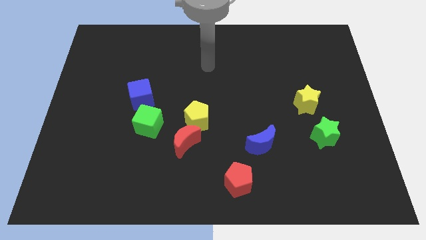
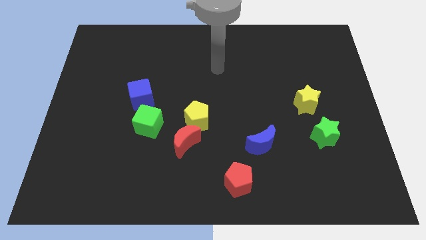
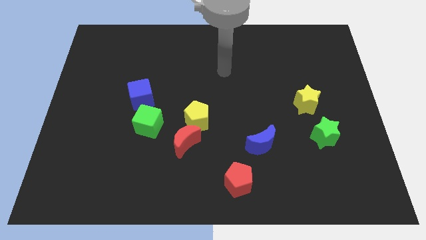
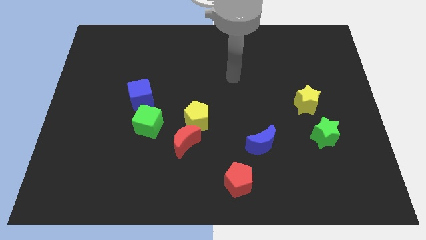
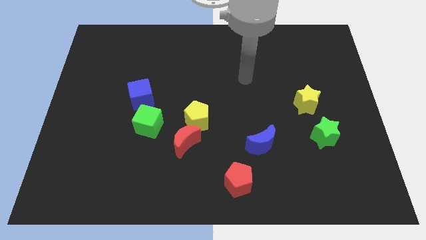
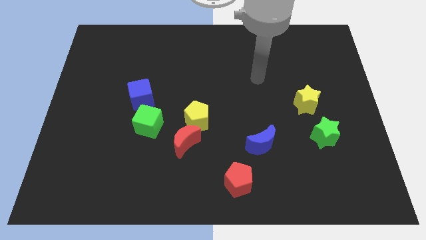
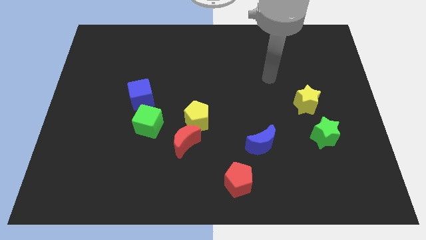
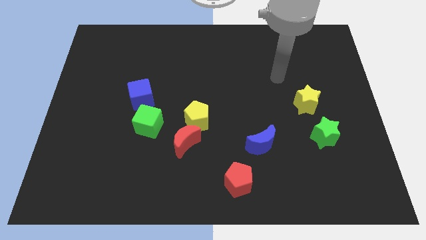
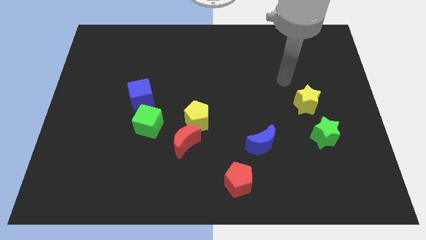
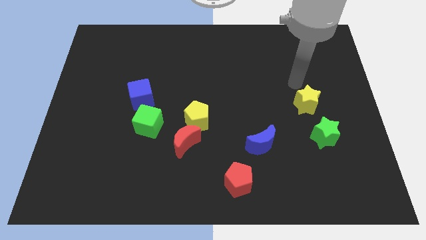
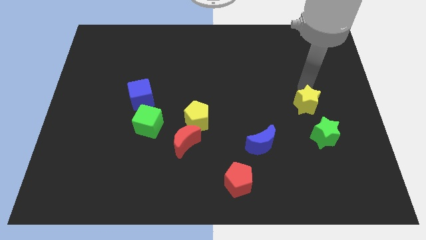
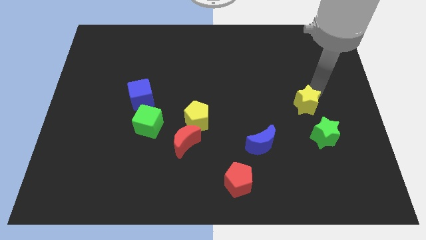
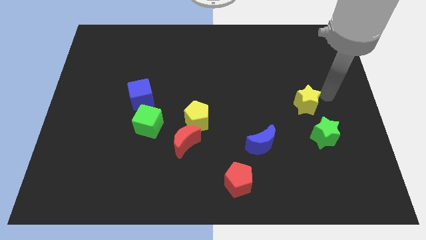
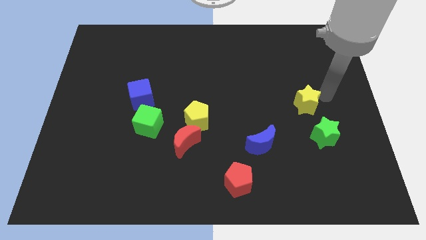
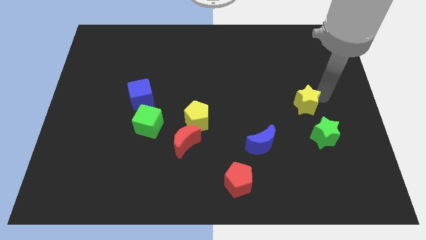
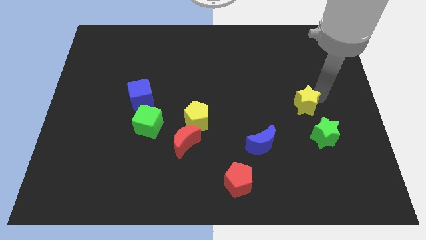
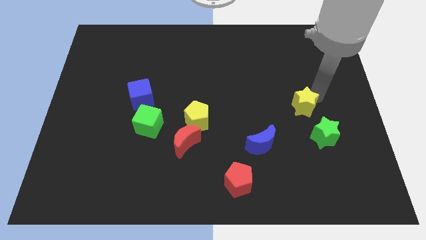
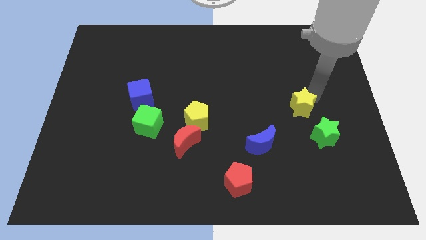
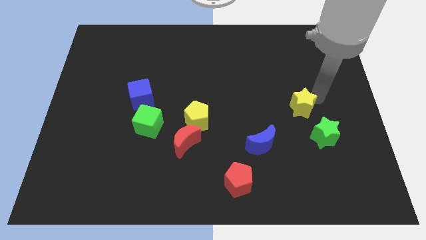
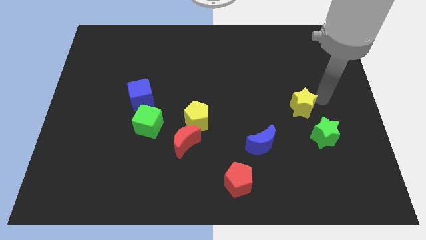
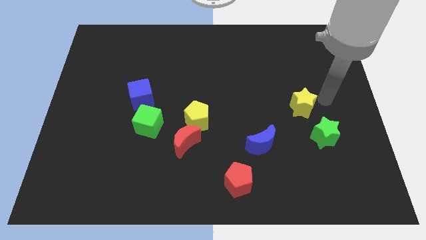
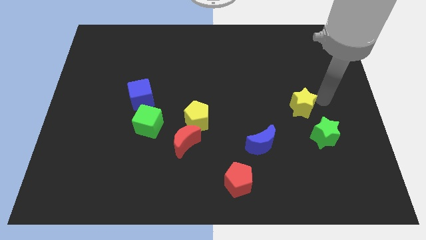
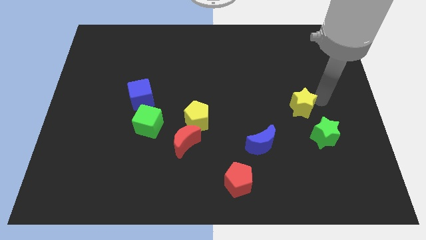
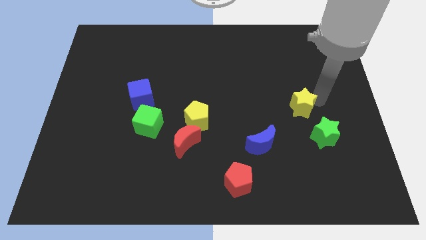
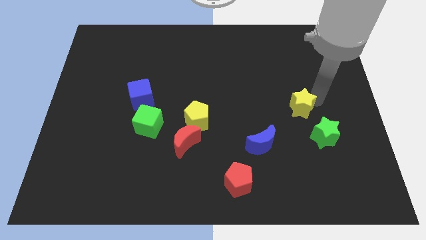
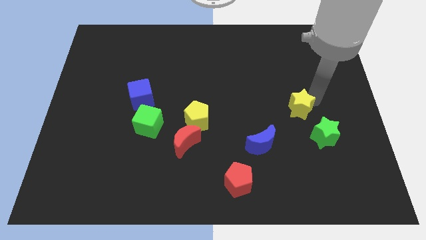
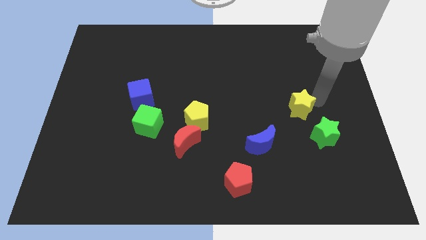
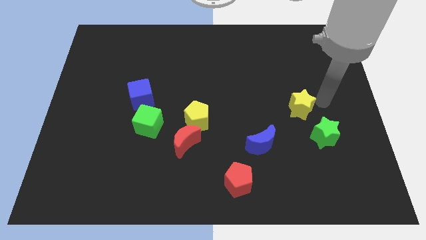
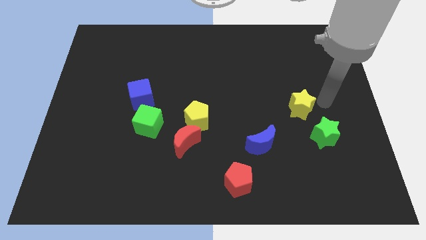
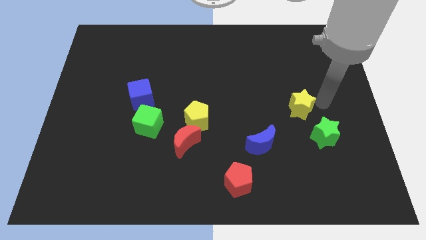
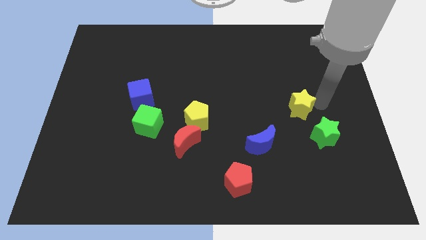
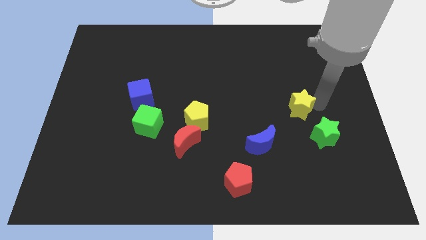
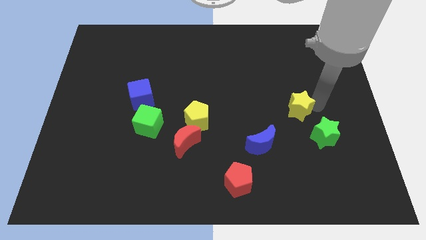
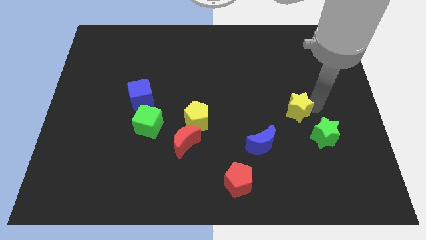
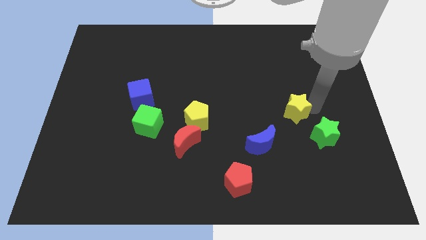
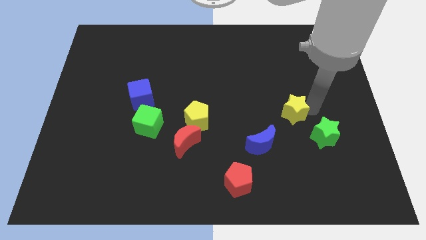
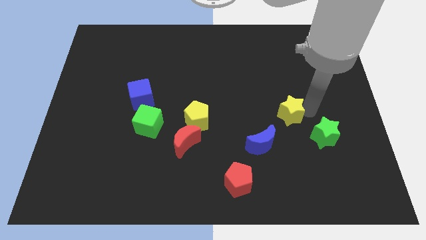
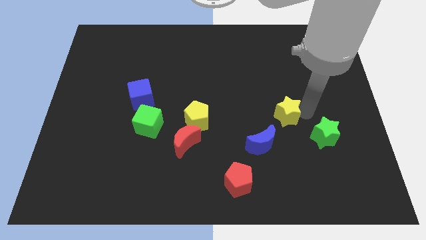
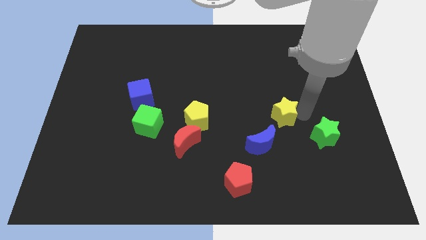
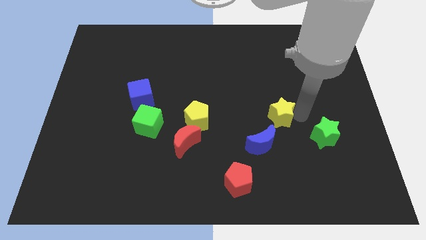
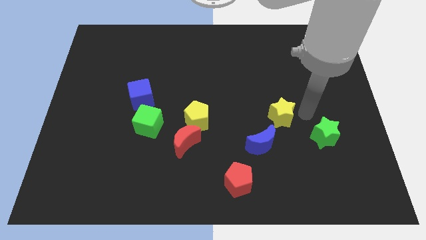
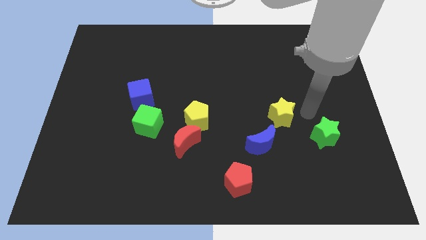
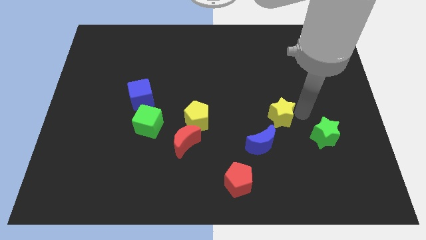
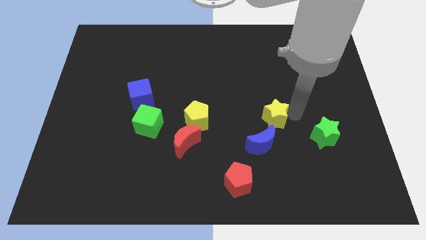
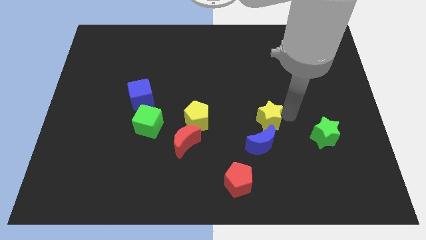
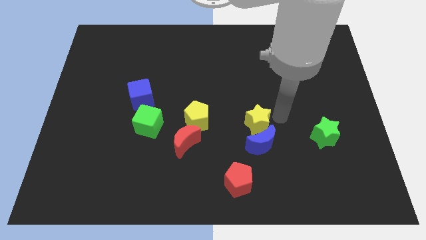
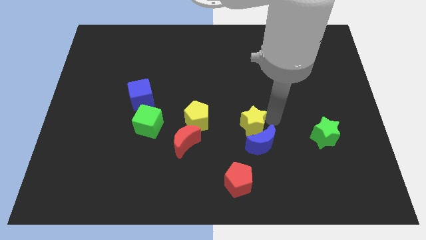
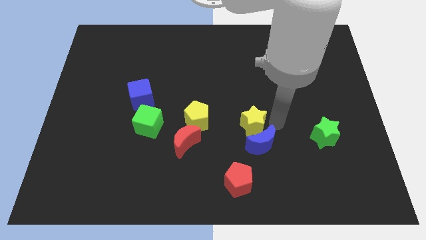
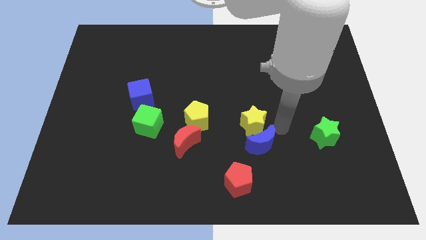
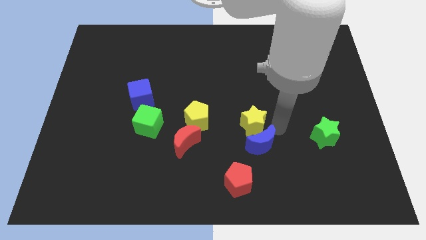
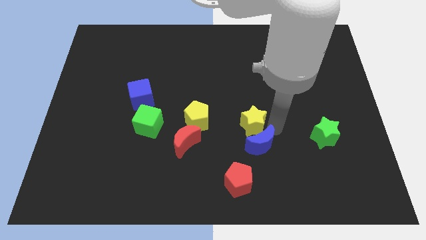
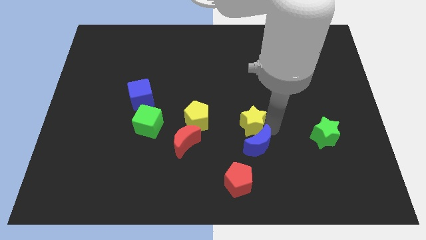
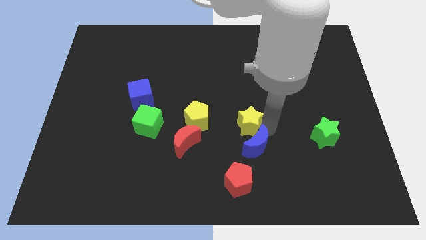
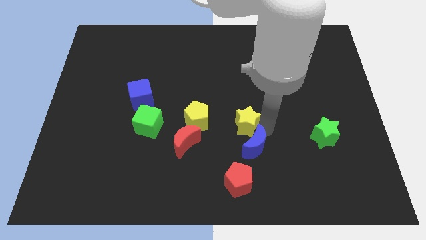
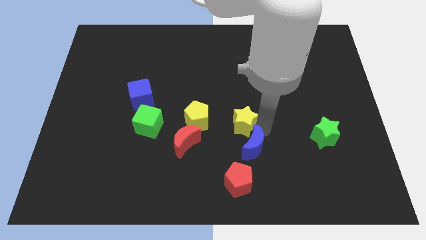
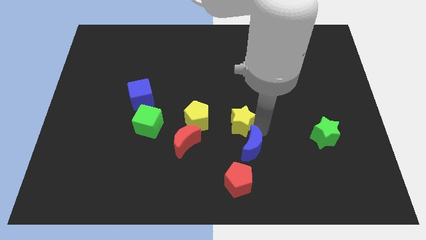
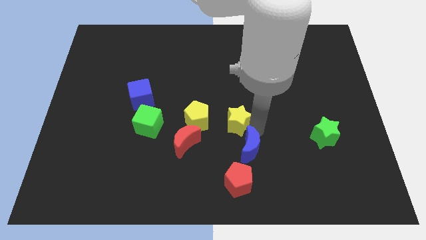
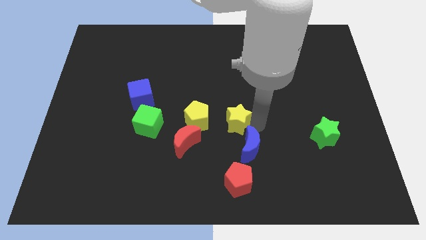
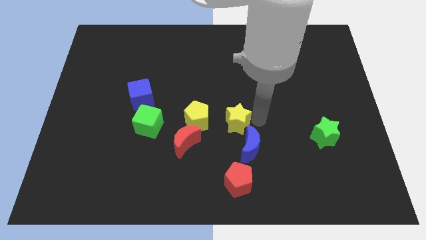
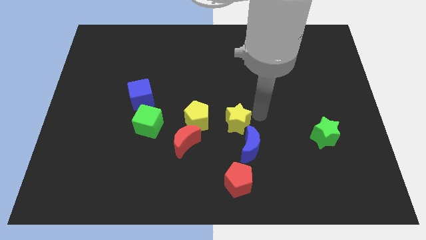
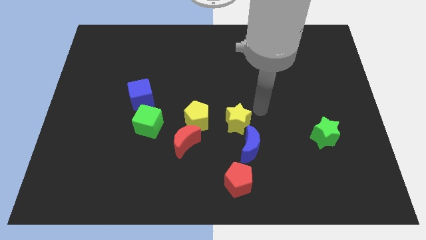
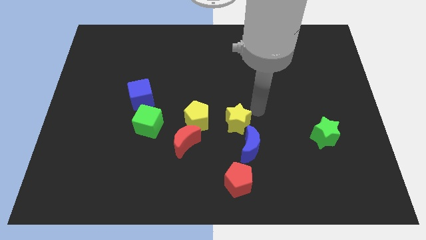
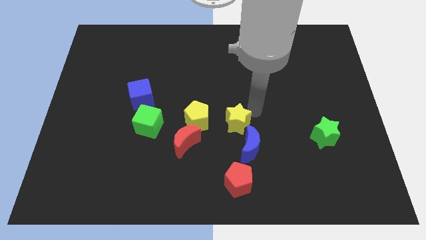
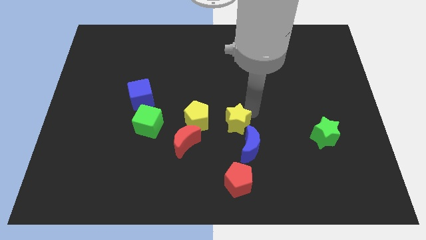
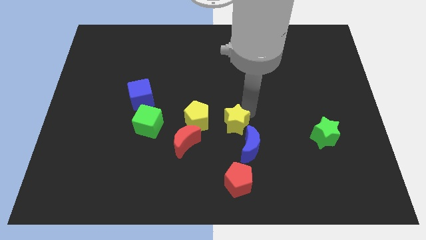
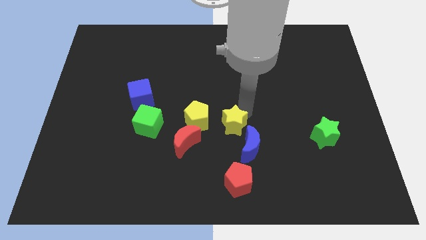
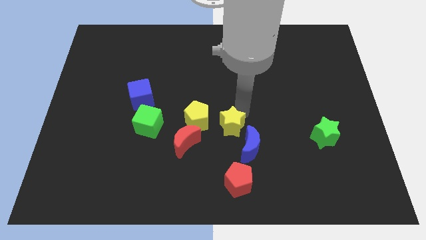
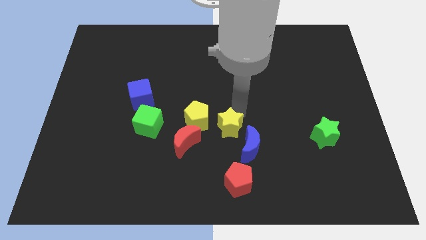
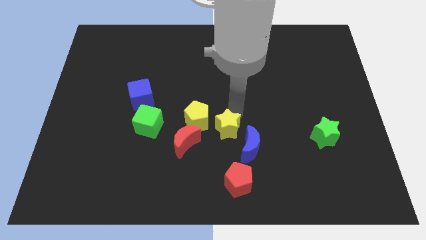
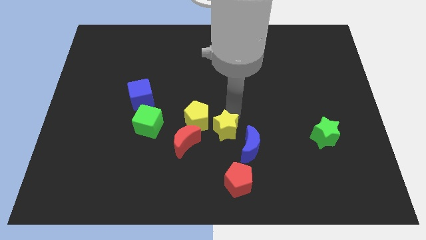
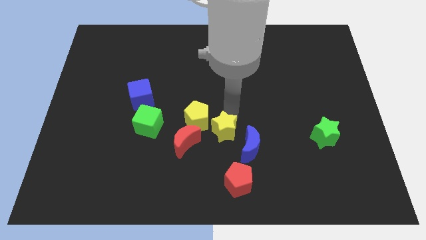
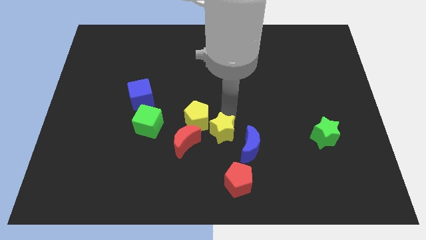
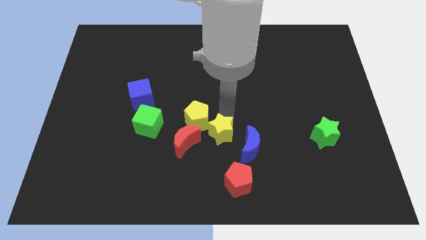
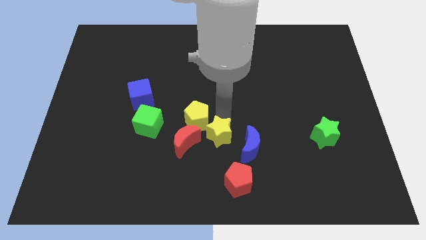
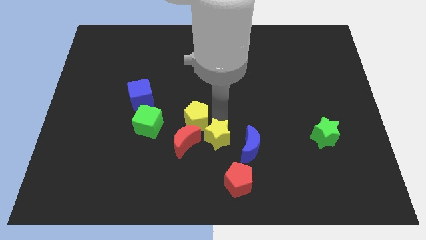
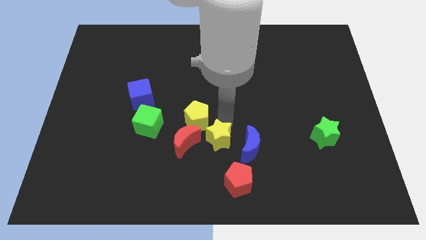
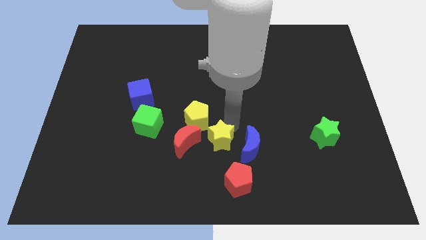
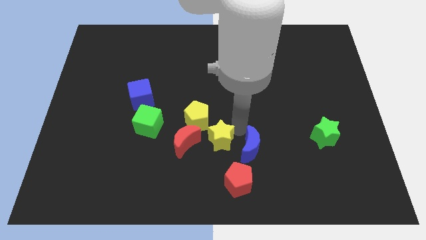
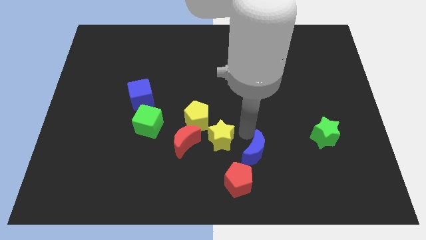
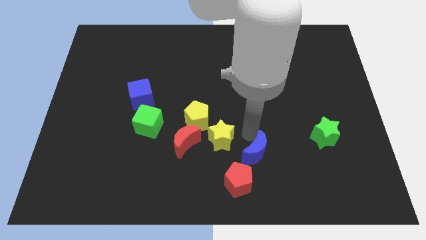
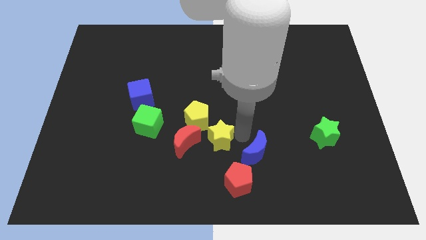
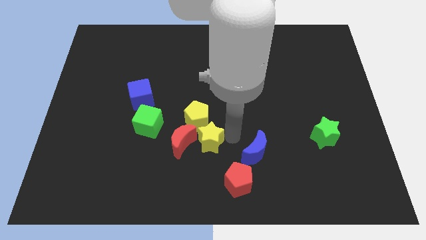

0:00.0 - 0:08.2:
move the yellow star next to the red moon
